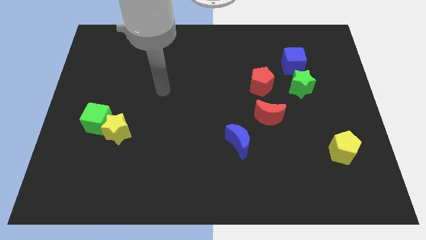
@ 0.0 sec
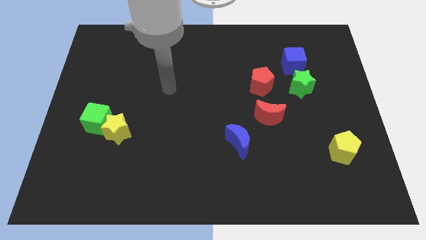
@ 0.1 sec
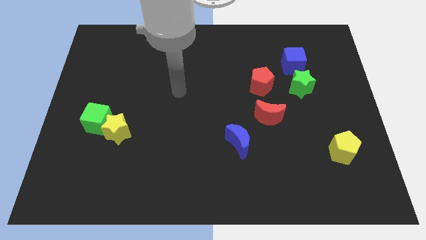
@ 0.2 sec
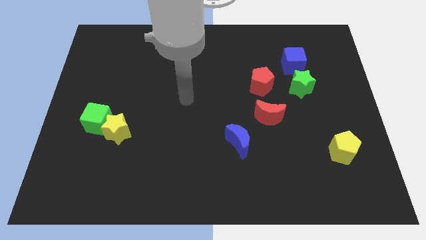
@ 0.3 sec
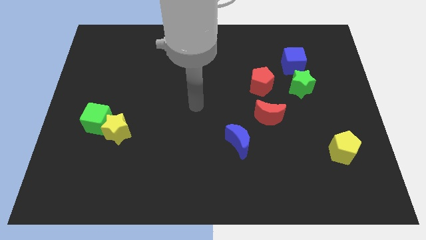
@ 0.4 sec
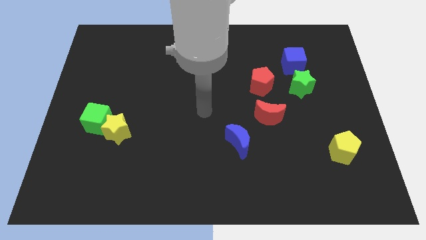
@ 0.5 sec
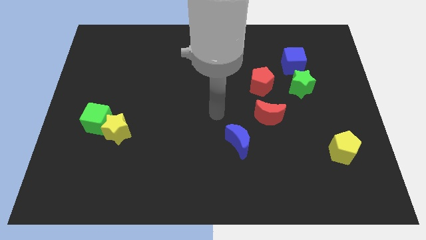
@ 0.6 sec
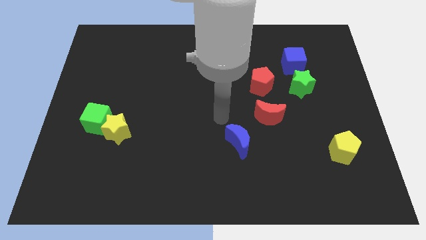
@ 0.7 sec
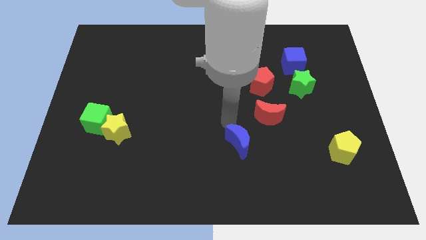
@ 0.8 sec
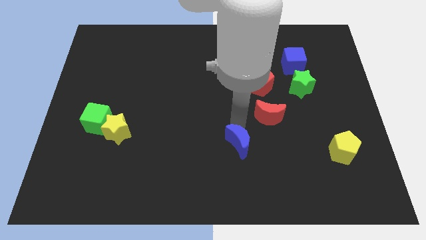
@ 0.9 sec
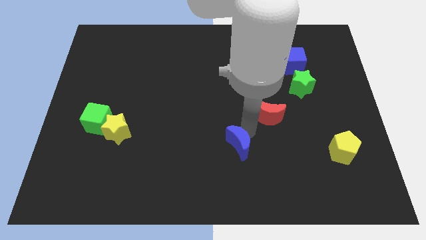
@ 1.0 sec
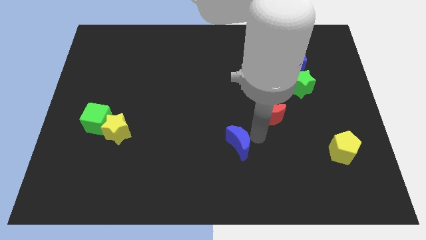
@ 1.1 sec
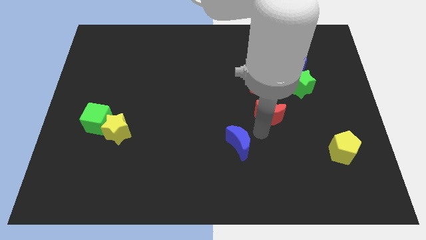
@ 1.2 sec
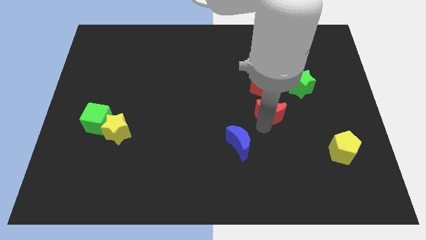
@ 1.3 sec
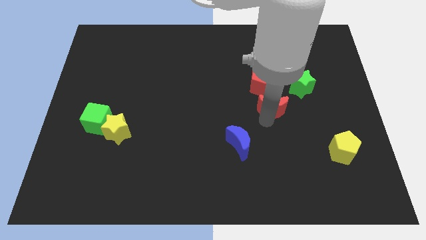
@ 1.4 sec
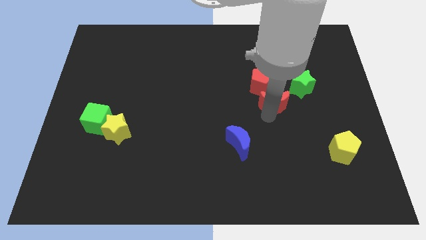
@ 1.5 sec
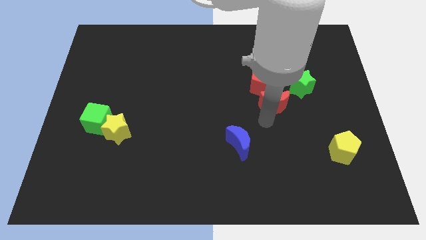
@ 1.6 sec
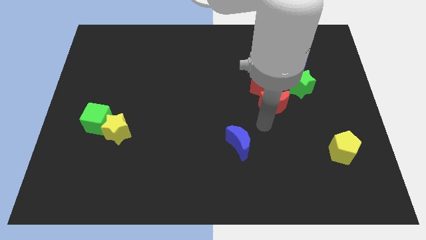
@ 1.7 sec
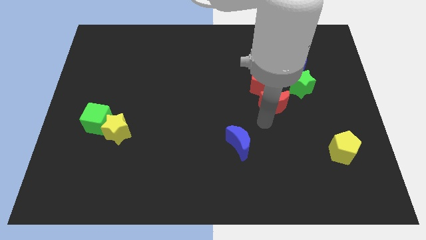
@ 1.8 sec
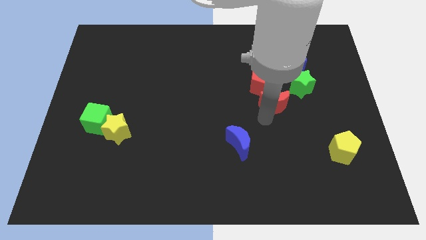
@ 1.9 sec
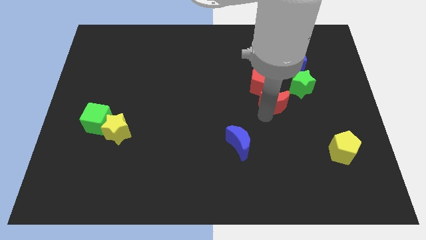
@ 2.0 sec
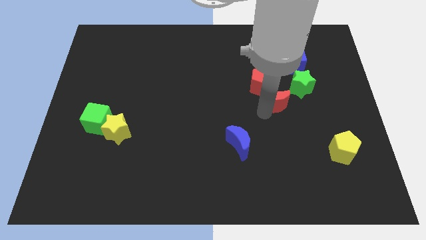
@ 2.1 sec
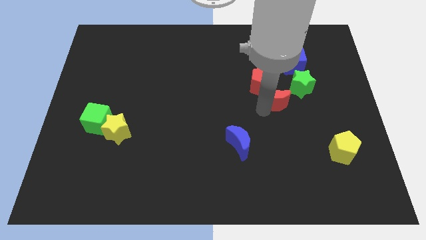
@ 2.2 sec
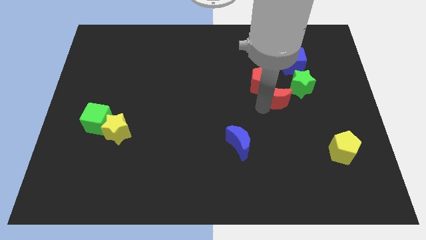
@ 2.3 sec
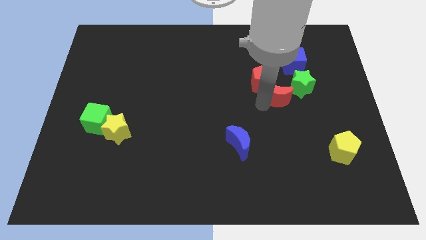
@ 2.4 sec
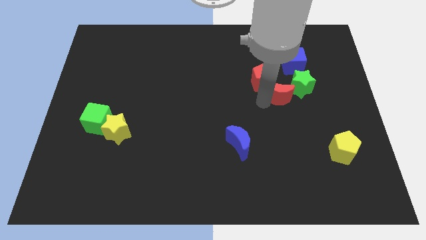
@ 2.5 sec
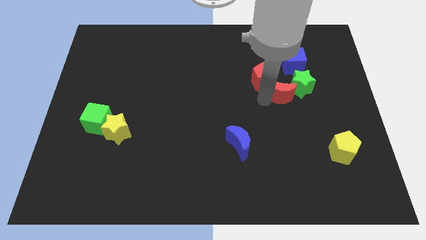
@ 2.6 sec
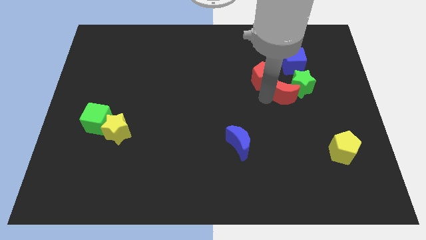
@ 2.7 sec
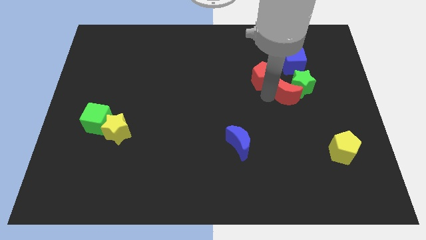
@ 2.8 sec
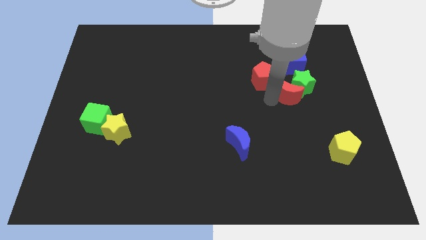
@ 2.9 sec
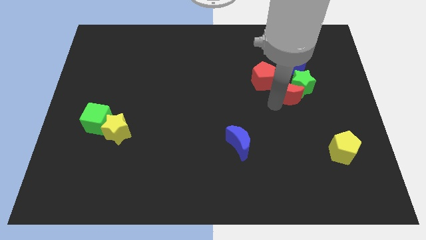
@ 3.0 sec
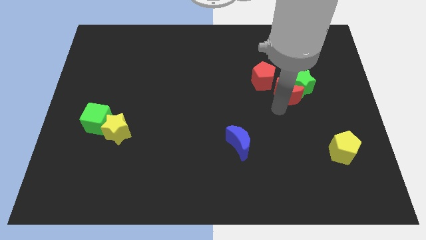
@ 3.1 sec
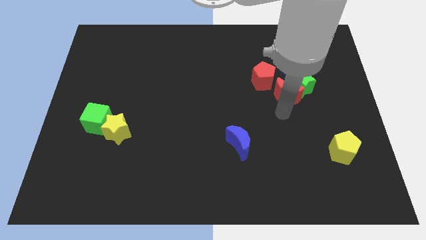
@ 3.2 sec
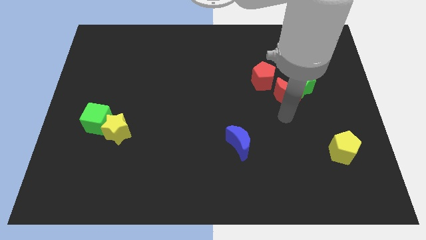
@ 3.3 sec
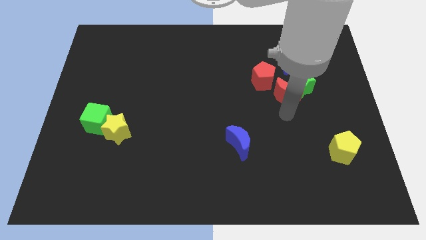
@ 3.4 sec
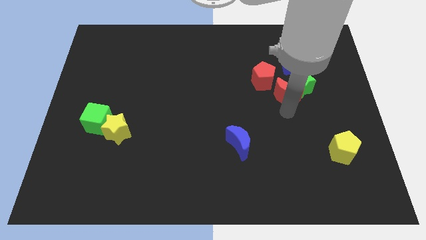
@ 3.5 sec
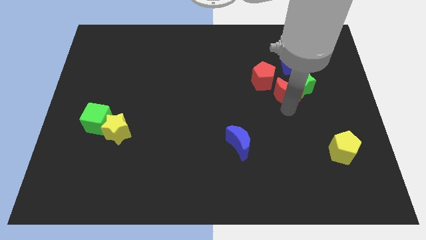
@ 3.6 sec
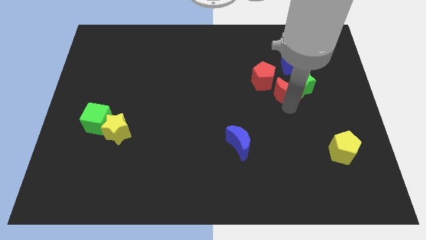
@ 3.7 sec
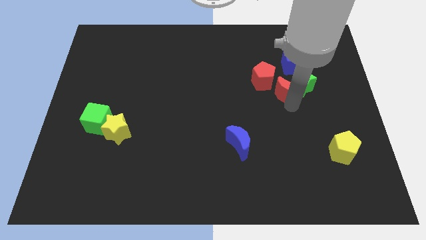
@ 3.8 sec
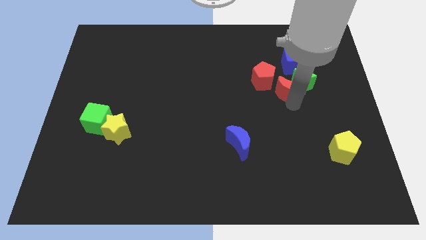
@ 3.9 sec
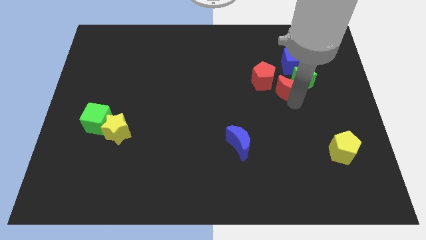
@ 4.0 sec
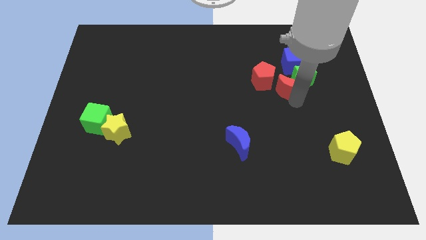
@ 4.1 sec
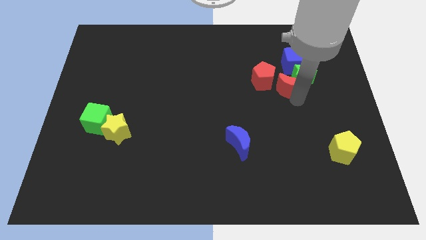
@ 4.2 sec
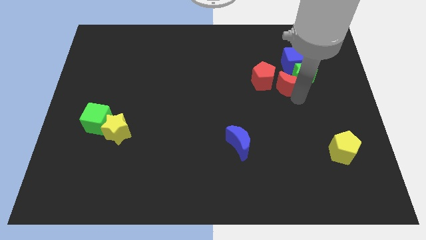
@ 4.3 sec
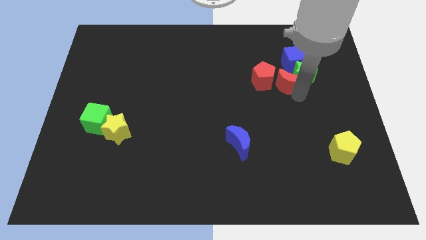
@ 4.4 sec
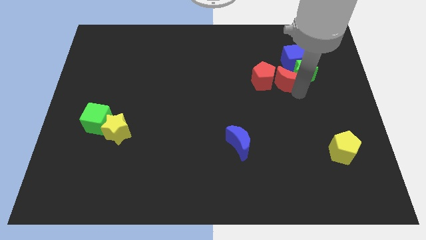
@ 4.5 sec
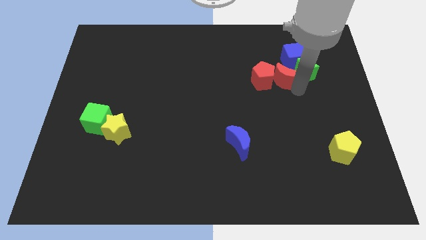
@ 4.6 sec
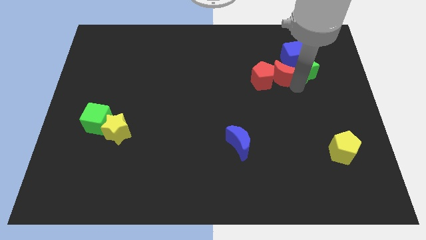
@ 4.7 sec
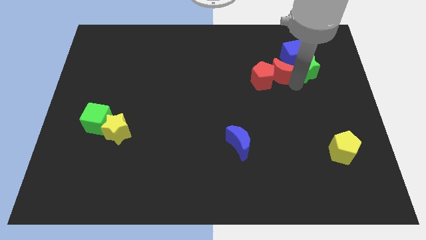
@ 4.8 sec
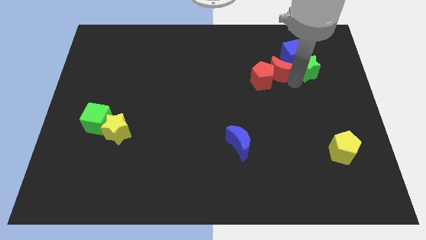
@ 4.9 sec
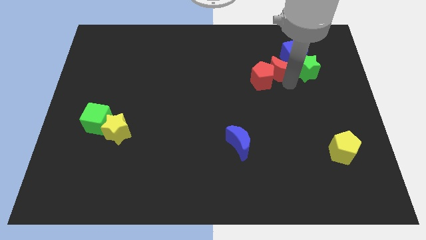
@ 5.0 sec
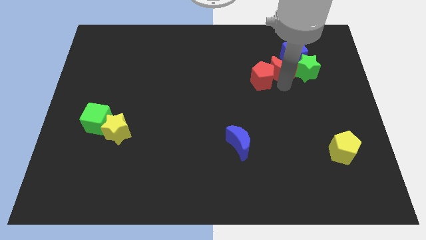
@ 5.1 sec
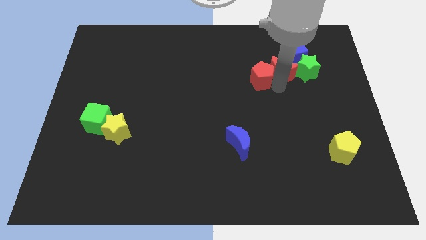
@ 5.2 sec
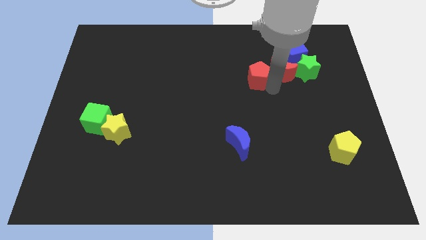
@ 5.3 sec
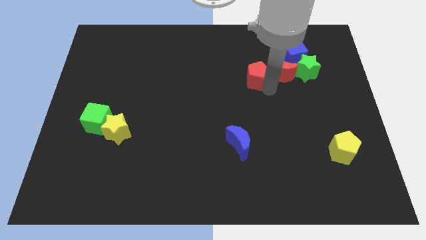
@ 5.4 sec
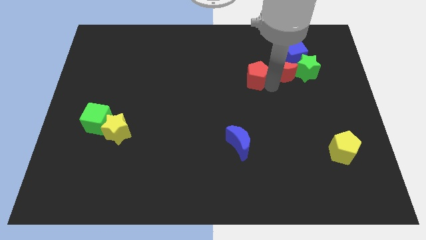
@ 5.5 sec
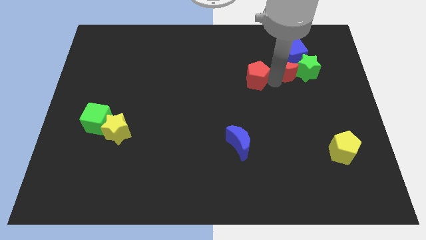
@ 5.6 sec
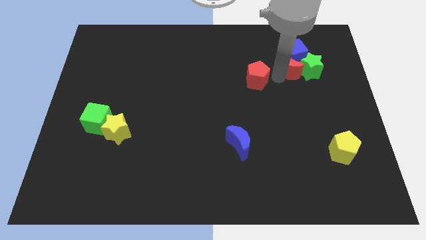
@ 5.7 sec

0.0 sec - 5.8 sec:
push the red moon next to the blue cube

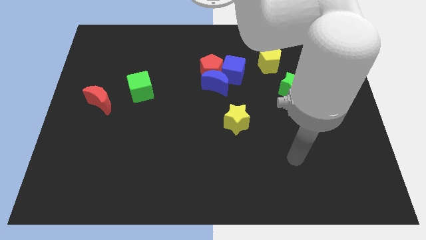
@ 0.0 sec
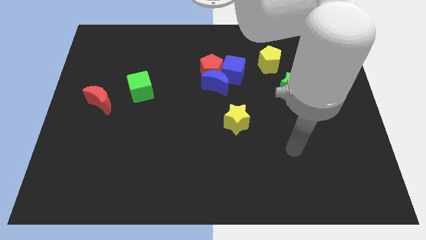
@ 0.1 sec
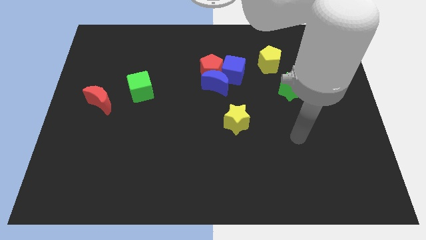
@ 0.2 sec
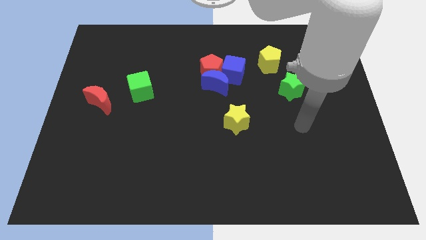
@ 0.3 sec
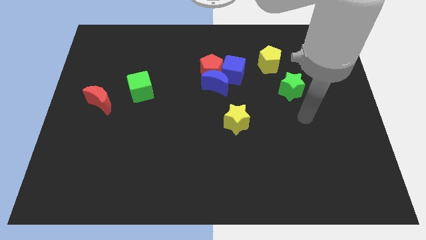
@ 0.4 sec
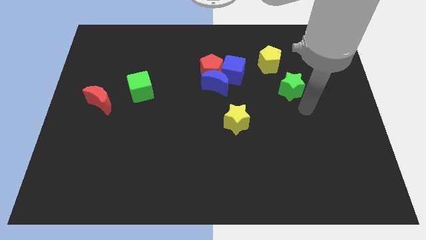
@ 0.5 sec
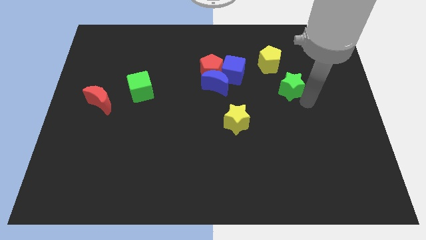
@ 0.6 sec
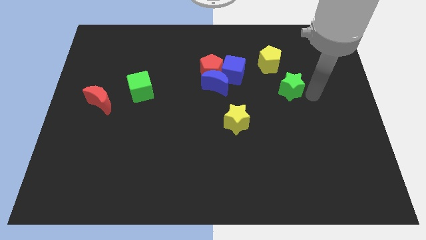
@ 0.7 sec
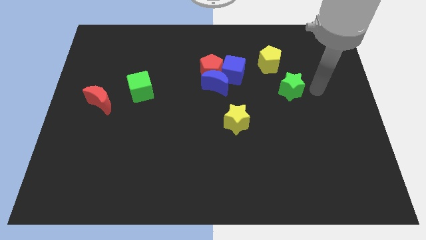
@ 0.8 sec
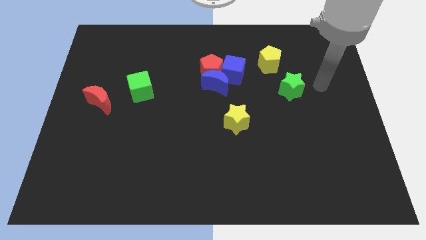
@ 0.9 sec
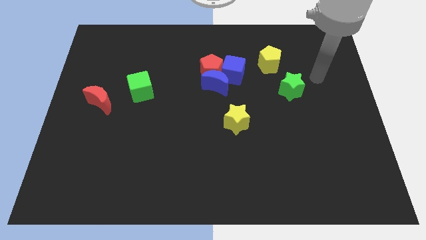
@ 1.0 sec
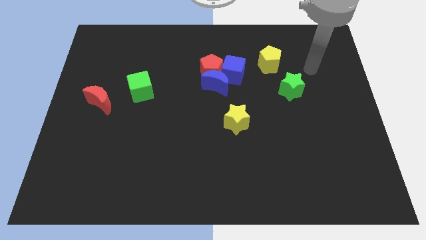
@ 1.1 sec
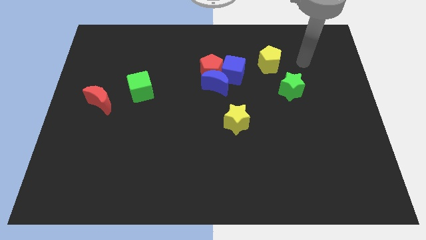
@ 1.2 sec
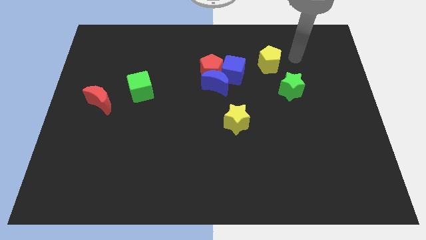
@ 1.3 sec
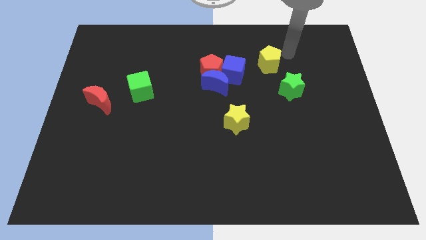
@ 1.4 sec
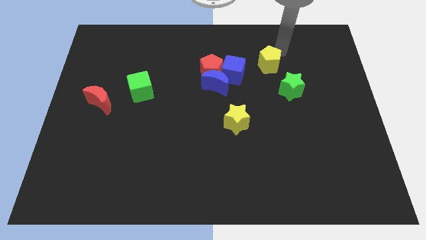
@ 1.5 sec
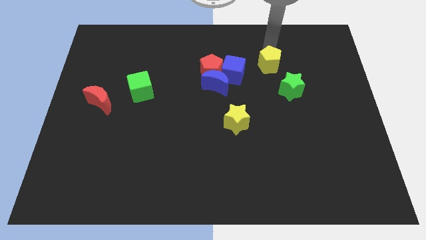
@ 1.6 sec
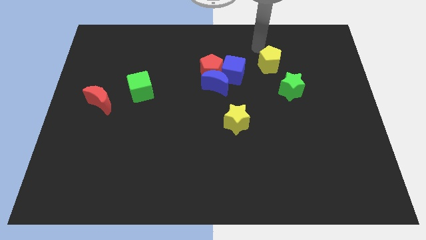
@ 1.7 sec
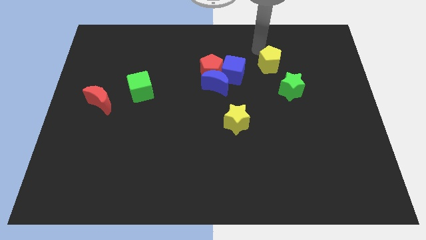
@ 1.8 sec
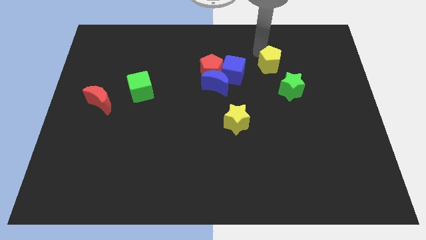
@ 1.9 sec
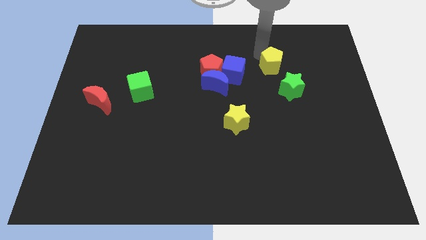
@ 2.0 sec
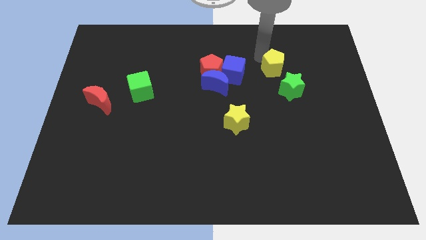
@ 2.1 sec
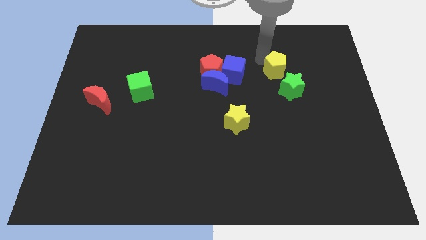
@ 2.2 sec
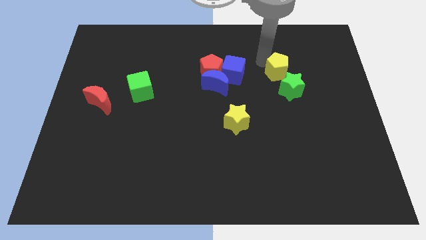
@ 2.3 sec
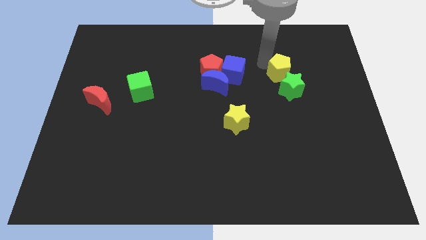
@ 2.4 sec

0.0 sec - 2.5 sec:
slide the yellow pentagon next to the green star
